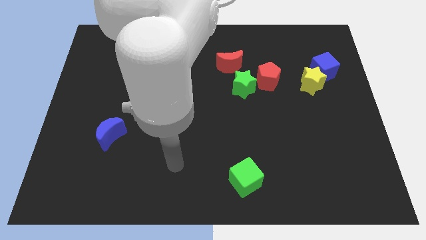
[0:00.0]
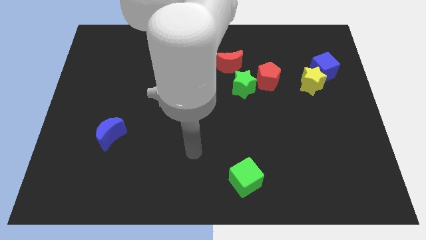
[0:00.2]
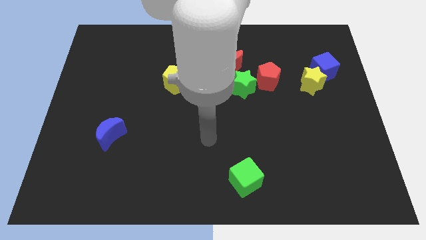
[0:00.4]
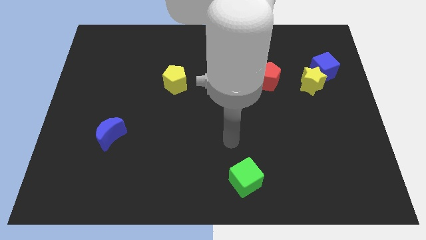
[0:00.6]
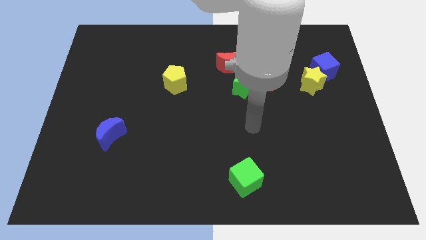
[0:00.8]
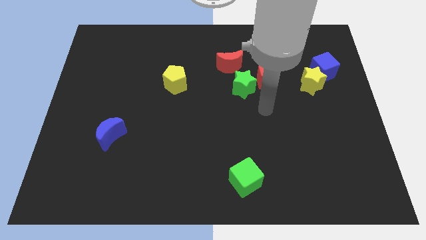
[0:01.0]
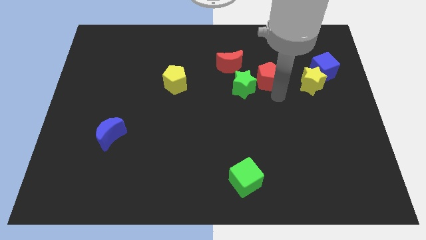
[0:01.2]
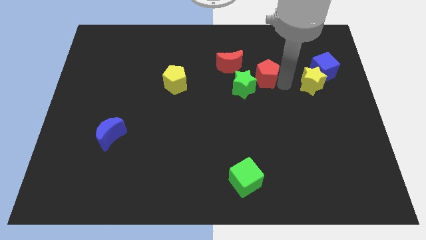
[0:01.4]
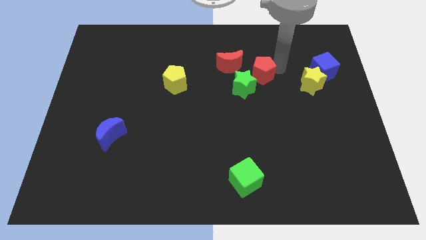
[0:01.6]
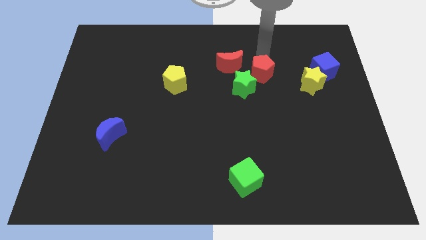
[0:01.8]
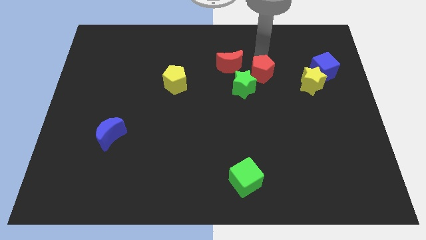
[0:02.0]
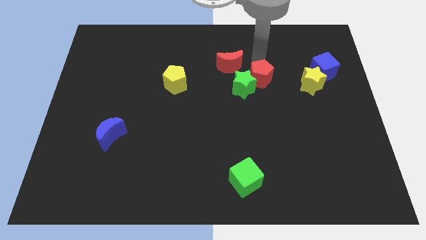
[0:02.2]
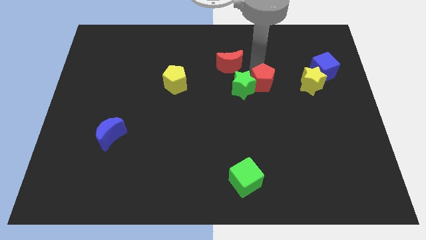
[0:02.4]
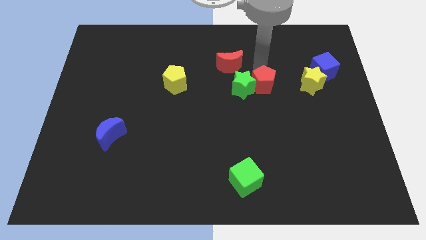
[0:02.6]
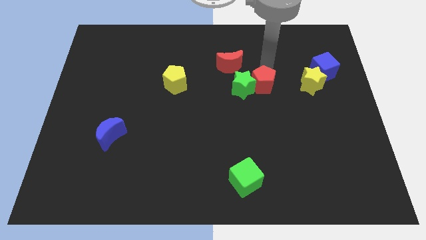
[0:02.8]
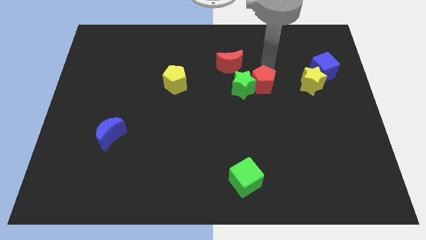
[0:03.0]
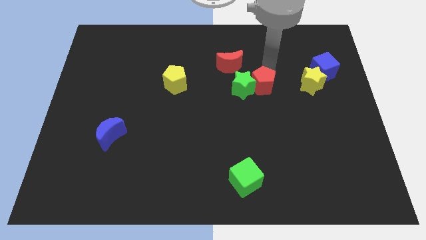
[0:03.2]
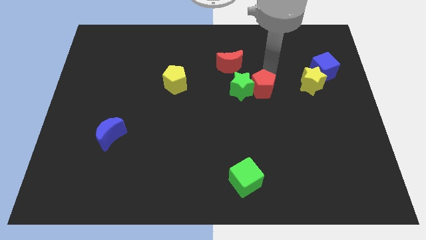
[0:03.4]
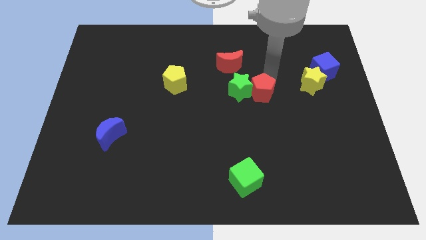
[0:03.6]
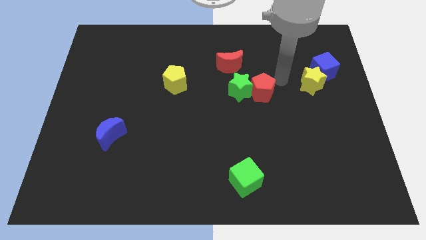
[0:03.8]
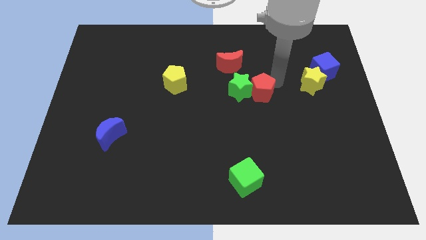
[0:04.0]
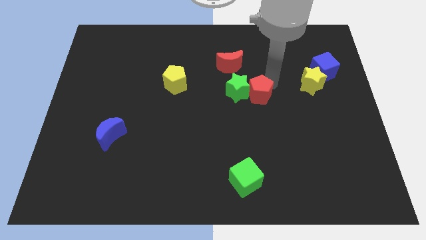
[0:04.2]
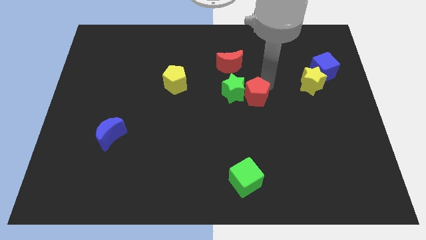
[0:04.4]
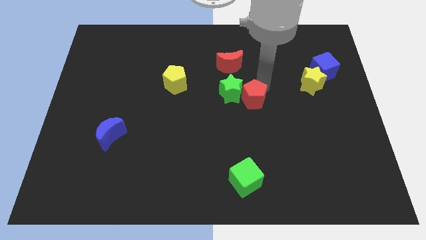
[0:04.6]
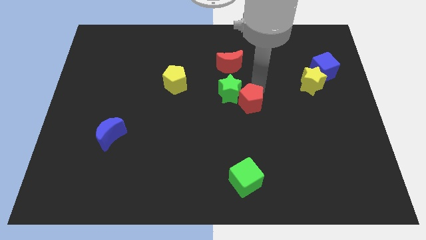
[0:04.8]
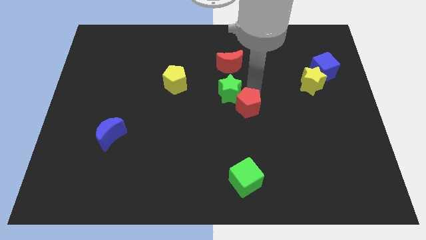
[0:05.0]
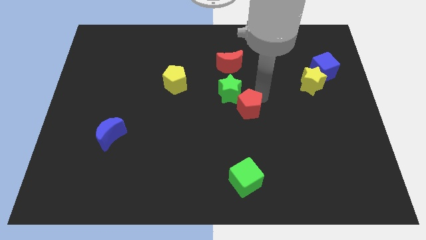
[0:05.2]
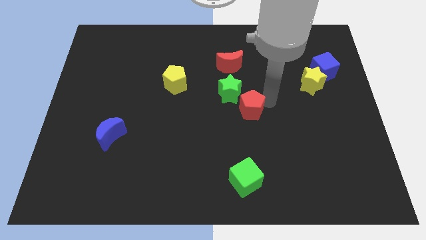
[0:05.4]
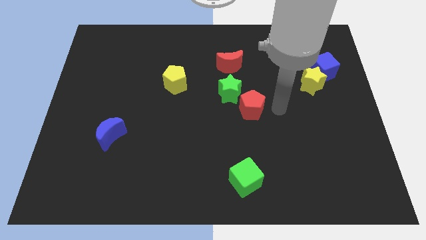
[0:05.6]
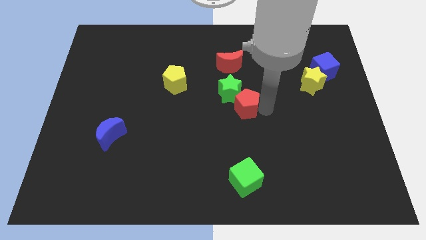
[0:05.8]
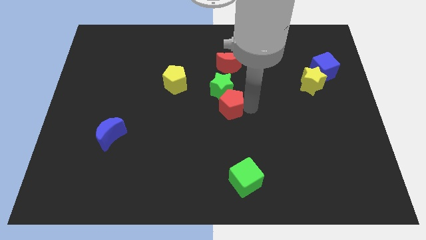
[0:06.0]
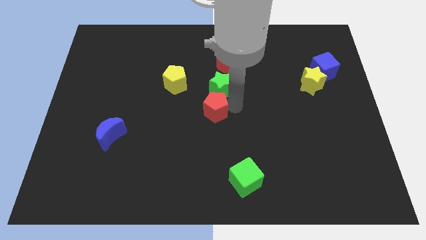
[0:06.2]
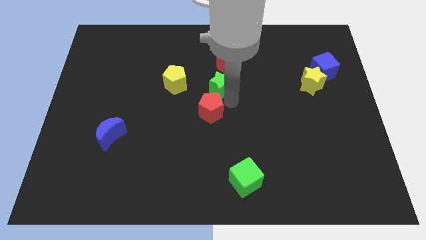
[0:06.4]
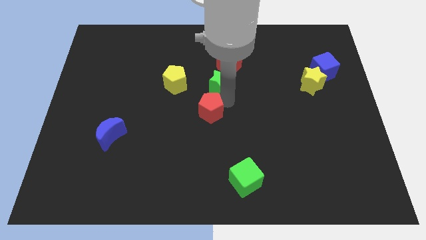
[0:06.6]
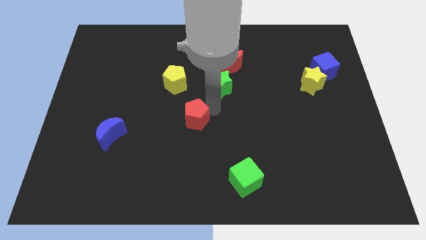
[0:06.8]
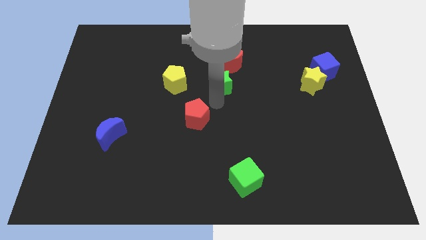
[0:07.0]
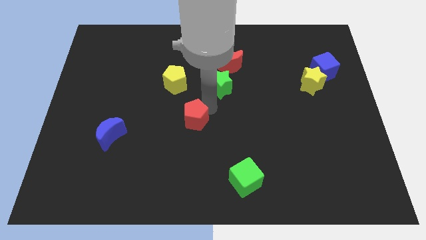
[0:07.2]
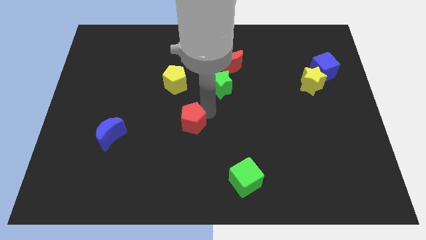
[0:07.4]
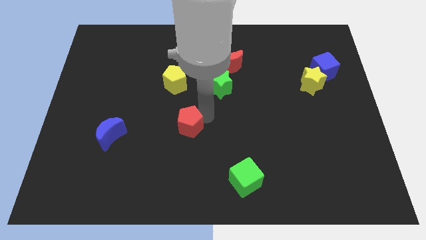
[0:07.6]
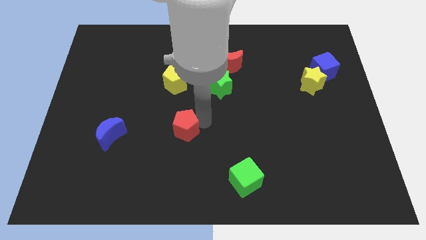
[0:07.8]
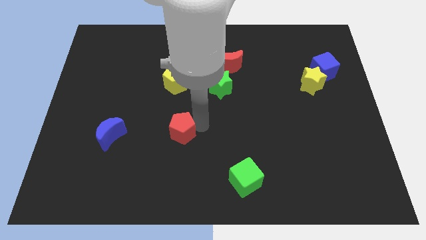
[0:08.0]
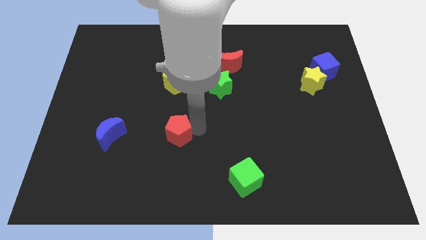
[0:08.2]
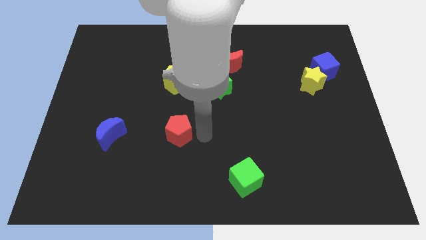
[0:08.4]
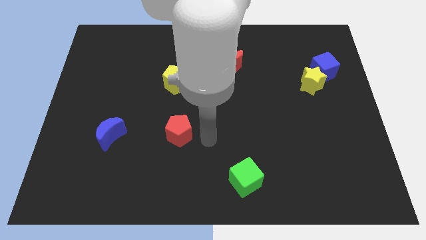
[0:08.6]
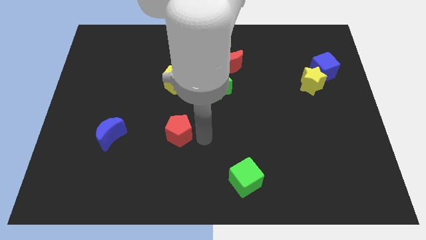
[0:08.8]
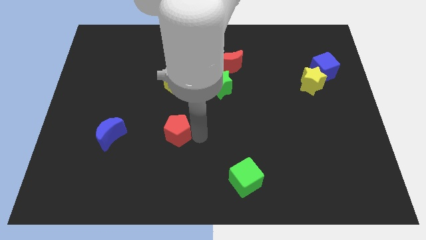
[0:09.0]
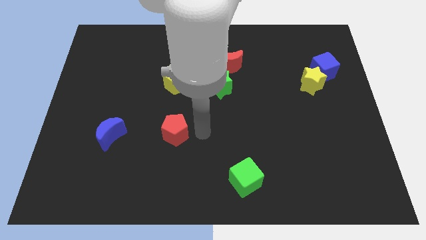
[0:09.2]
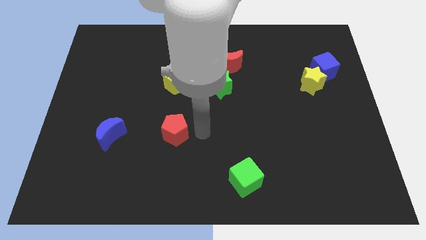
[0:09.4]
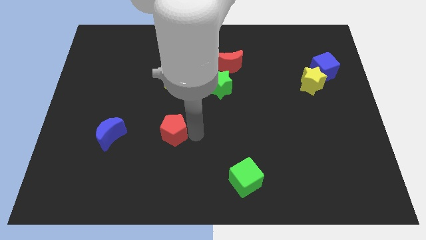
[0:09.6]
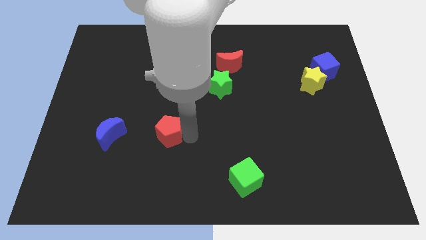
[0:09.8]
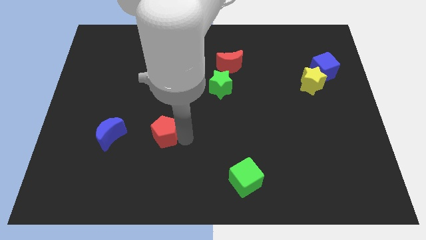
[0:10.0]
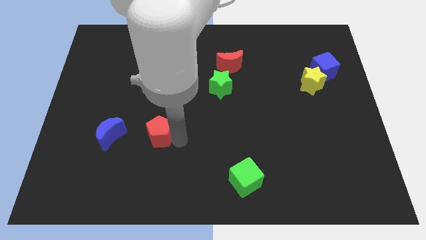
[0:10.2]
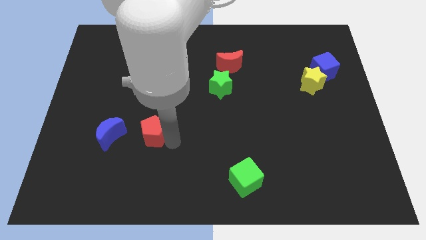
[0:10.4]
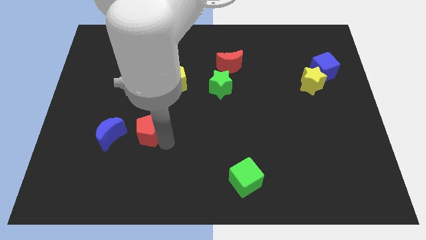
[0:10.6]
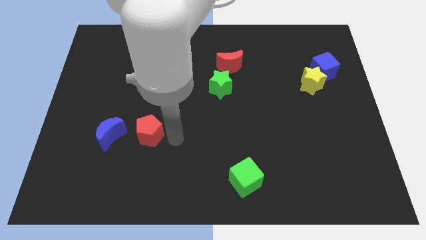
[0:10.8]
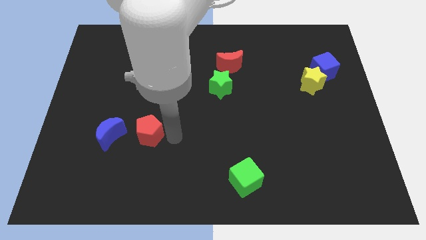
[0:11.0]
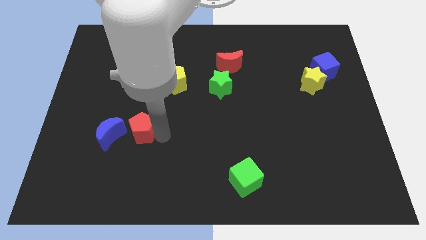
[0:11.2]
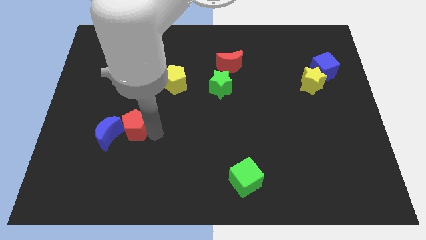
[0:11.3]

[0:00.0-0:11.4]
put the red pentagon close to the blue moon

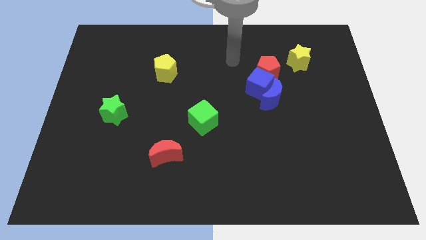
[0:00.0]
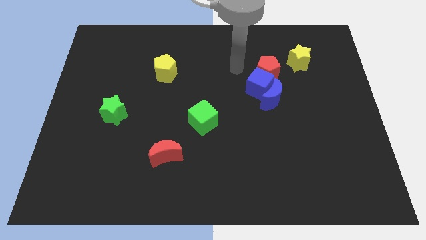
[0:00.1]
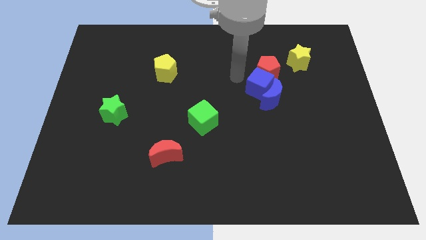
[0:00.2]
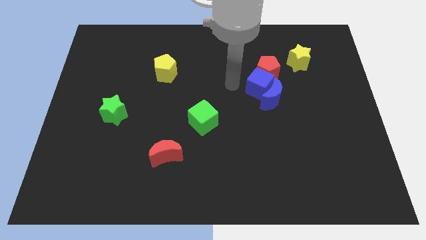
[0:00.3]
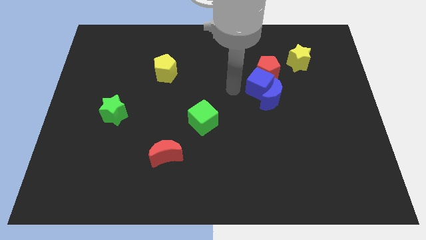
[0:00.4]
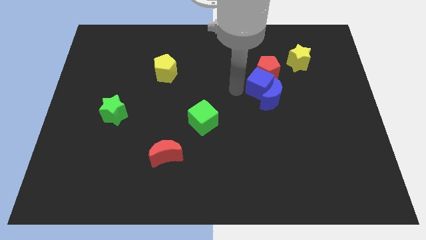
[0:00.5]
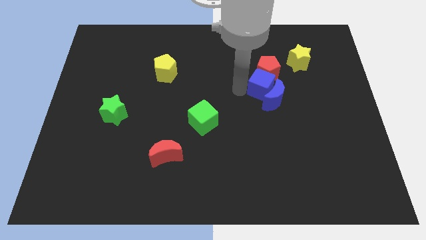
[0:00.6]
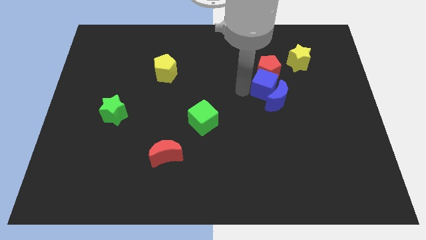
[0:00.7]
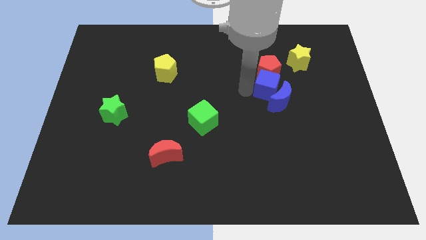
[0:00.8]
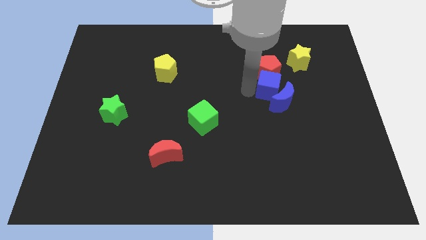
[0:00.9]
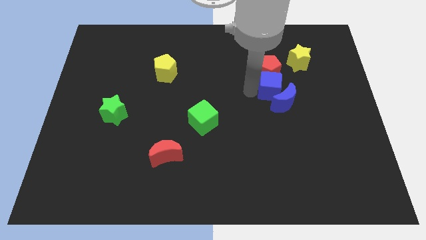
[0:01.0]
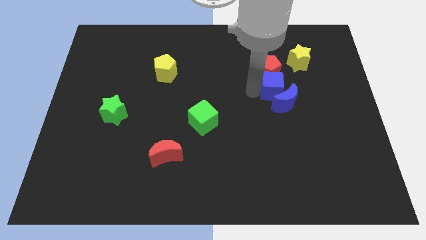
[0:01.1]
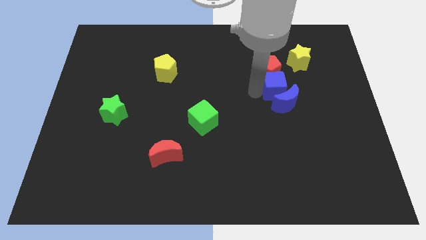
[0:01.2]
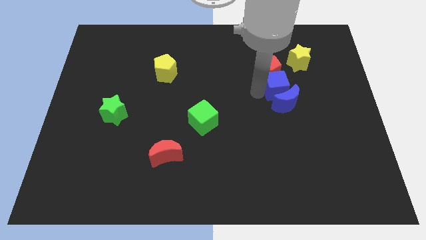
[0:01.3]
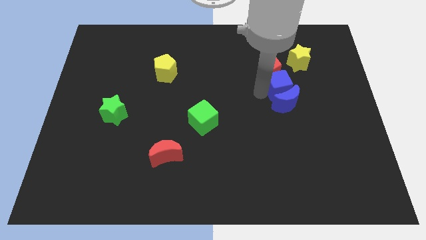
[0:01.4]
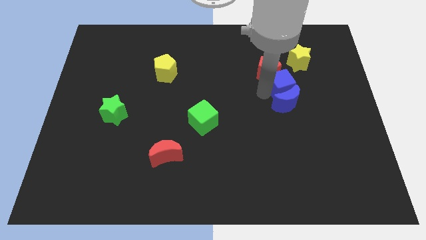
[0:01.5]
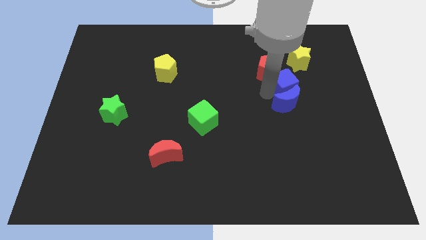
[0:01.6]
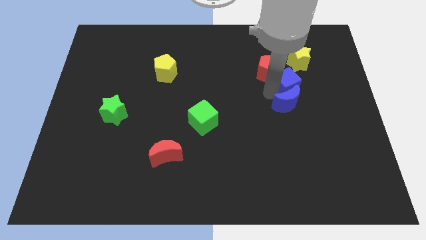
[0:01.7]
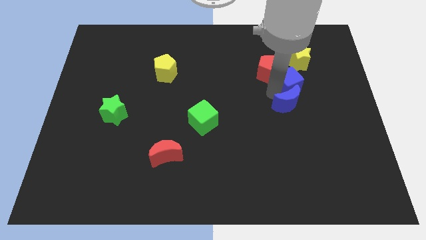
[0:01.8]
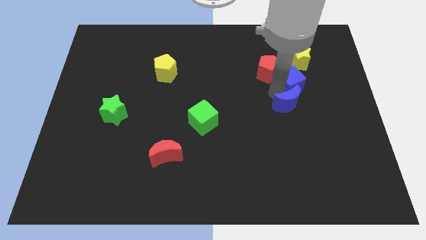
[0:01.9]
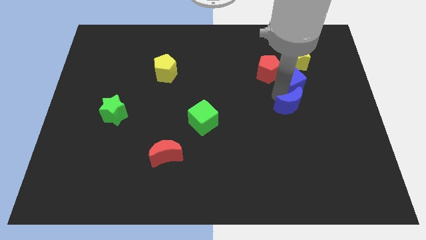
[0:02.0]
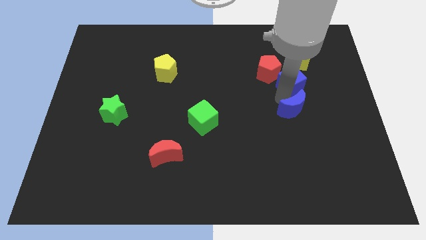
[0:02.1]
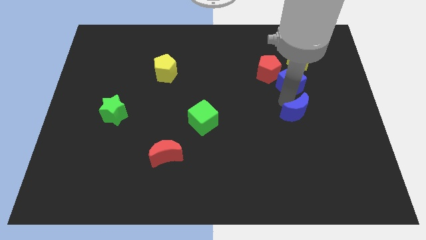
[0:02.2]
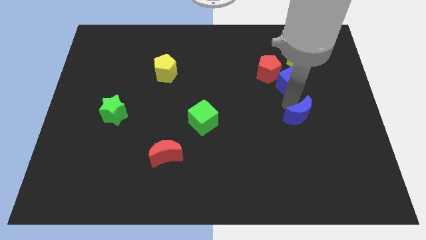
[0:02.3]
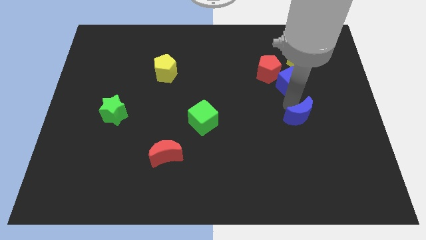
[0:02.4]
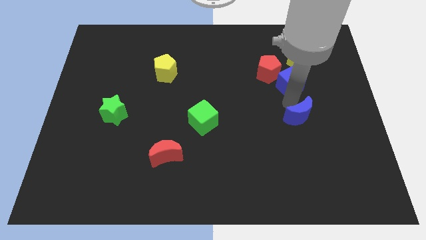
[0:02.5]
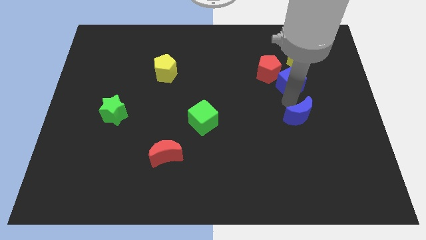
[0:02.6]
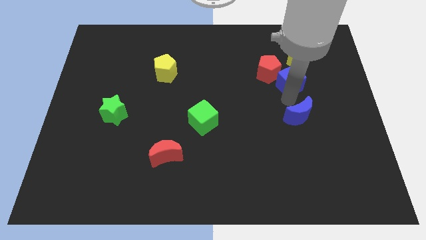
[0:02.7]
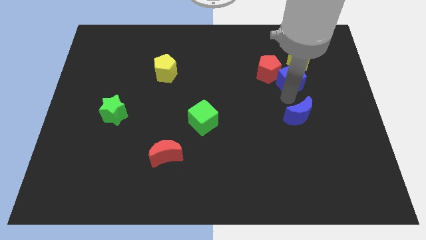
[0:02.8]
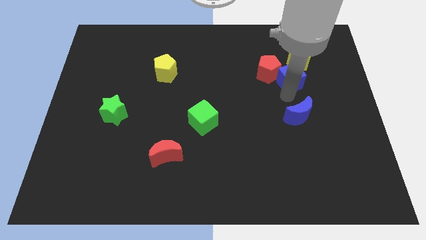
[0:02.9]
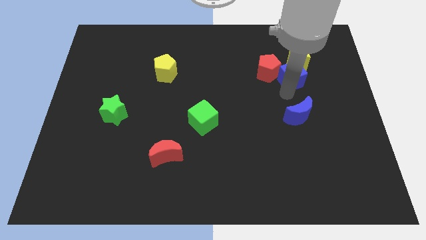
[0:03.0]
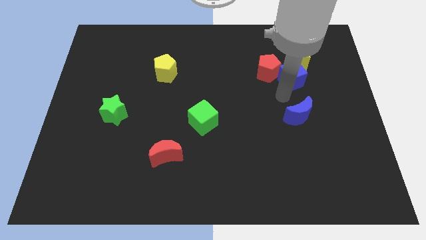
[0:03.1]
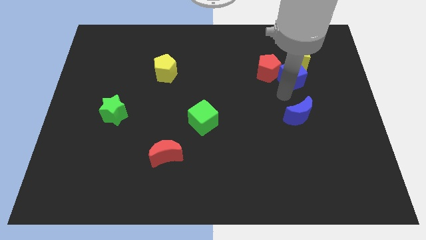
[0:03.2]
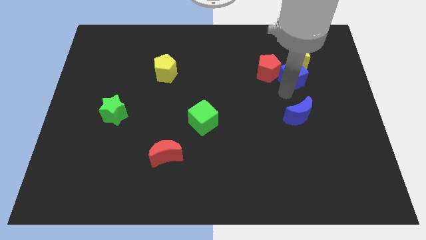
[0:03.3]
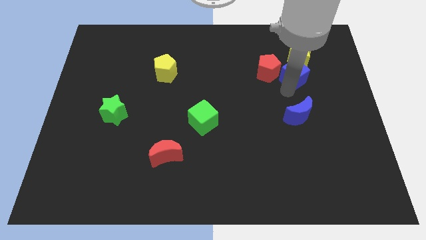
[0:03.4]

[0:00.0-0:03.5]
slide the blue cube close to the yellow star
